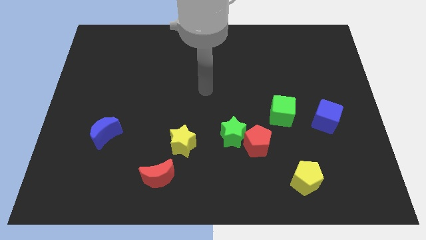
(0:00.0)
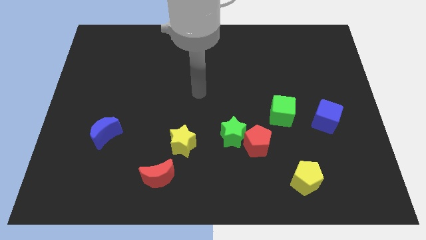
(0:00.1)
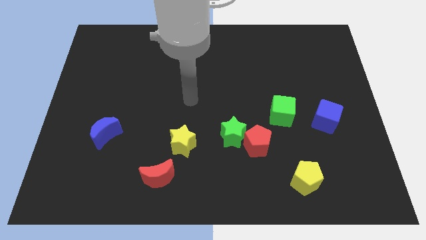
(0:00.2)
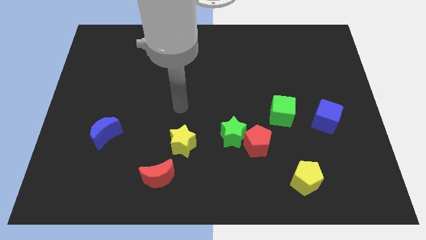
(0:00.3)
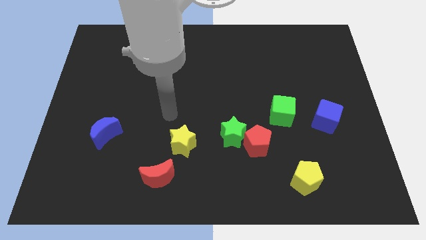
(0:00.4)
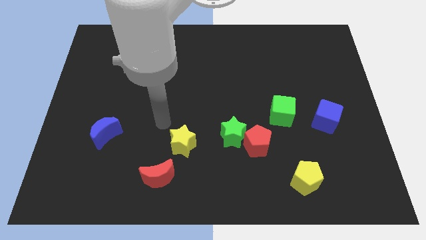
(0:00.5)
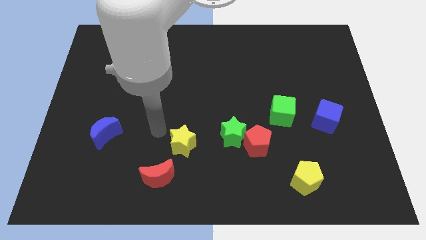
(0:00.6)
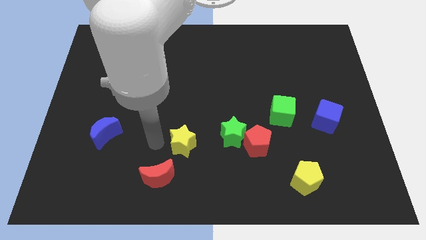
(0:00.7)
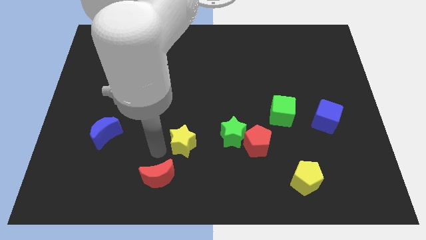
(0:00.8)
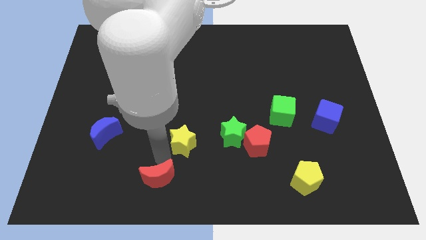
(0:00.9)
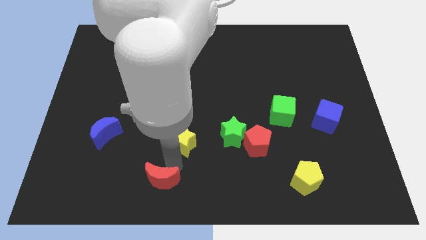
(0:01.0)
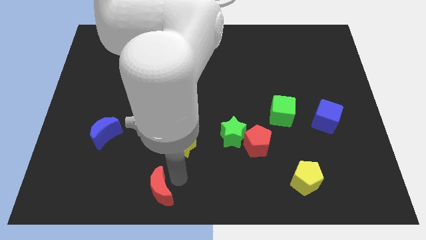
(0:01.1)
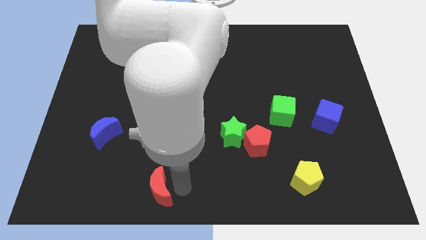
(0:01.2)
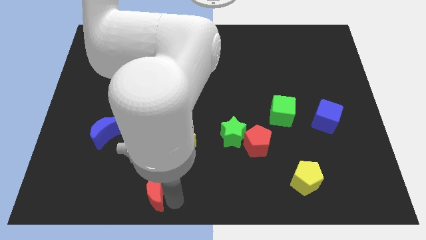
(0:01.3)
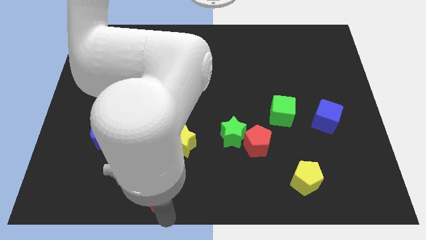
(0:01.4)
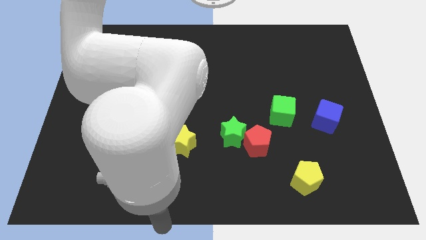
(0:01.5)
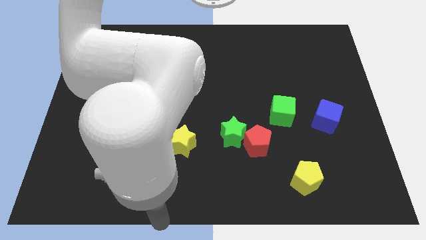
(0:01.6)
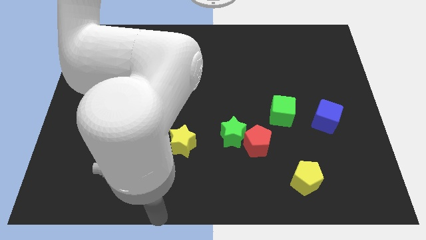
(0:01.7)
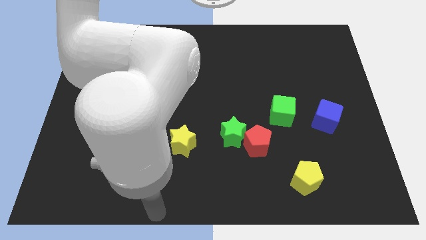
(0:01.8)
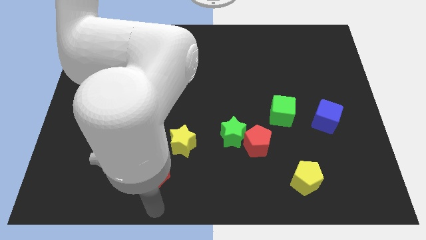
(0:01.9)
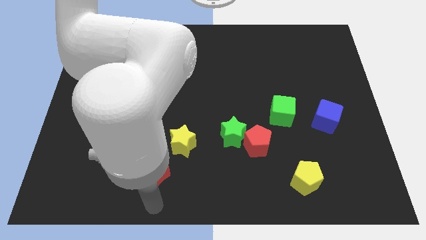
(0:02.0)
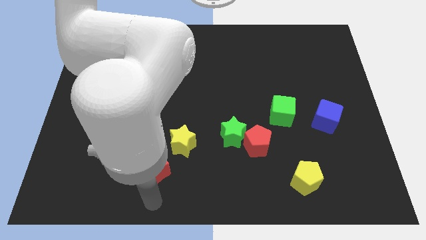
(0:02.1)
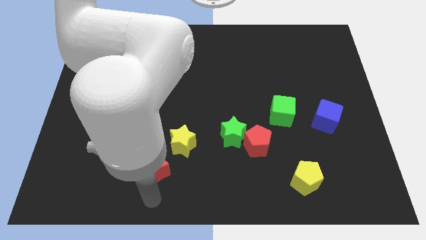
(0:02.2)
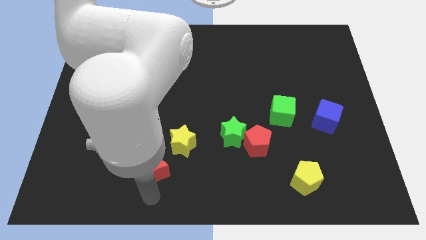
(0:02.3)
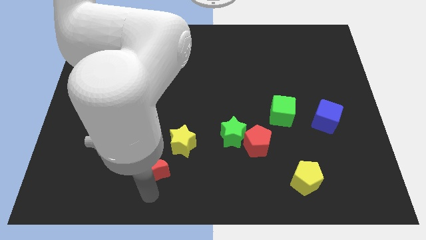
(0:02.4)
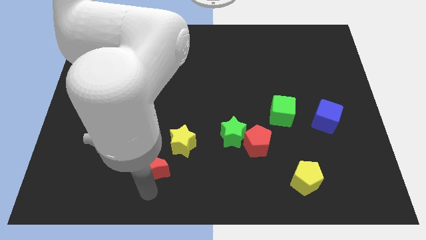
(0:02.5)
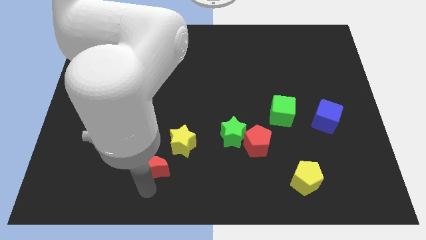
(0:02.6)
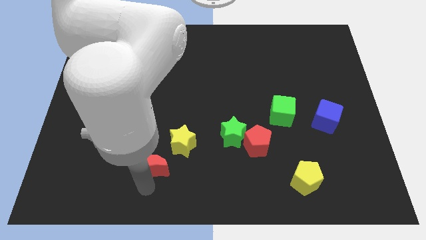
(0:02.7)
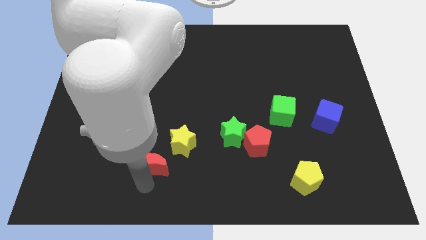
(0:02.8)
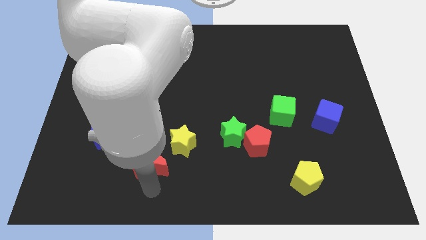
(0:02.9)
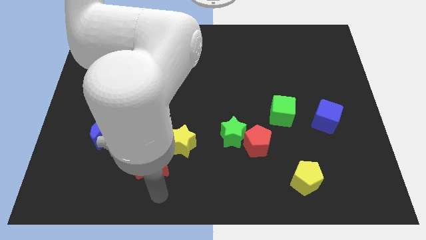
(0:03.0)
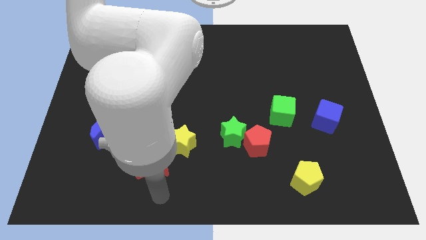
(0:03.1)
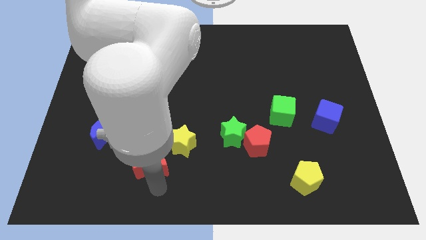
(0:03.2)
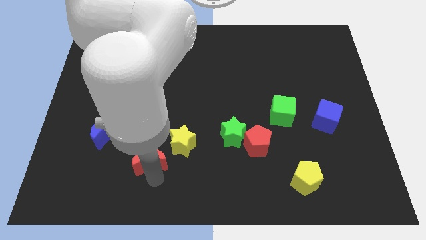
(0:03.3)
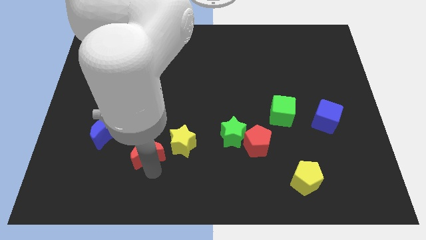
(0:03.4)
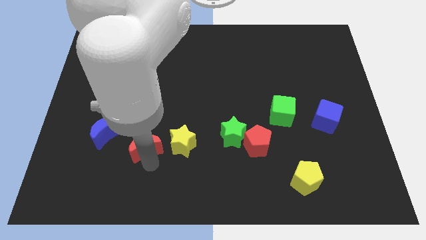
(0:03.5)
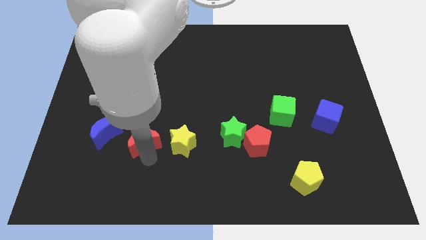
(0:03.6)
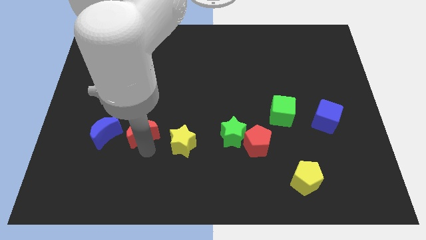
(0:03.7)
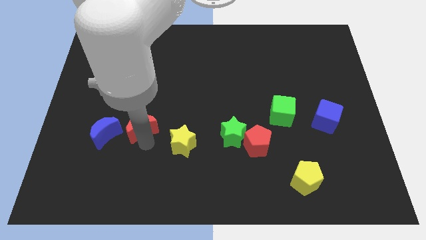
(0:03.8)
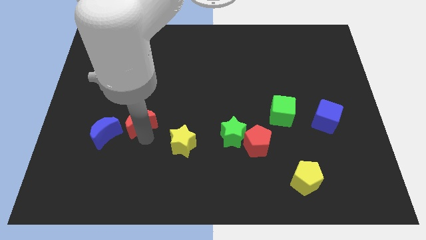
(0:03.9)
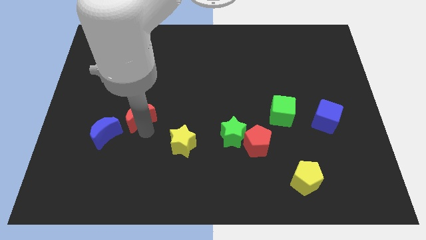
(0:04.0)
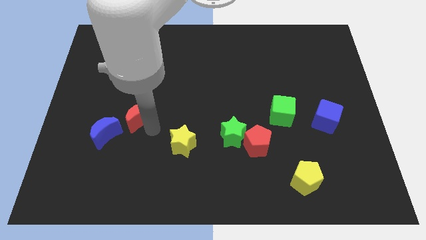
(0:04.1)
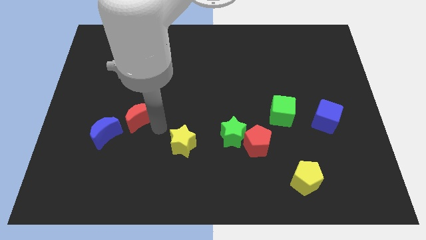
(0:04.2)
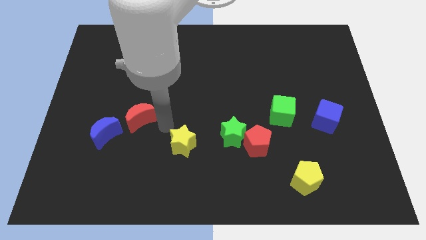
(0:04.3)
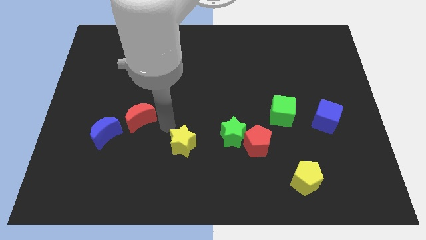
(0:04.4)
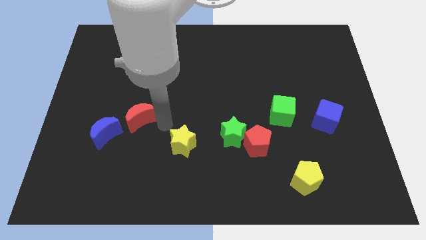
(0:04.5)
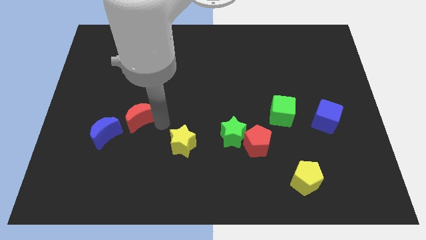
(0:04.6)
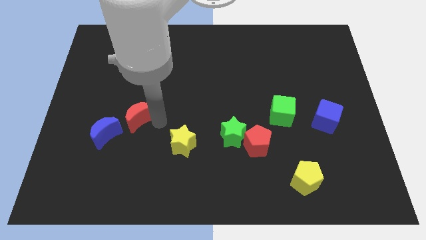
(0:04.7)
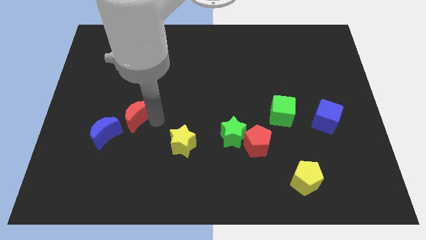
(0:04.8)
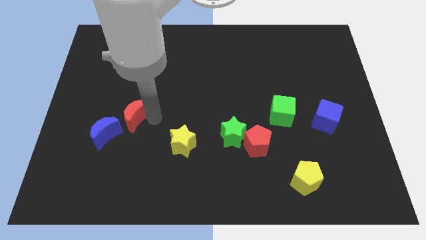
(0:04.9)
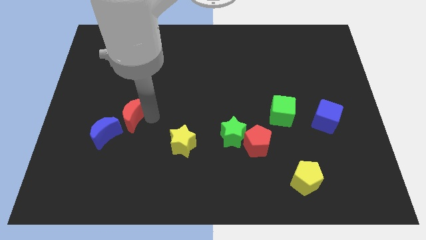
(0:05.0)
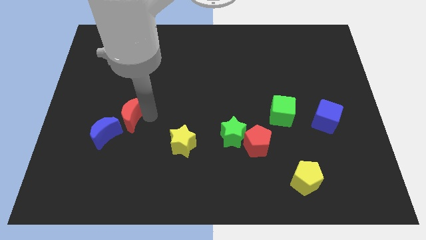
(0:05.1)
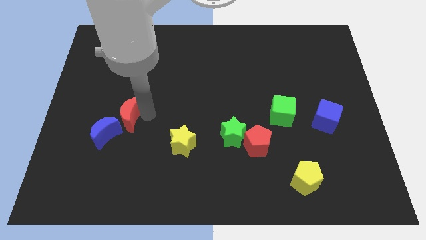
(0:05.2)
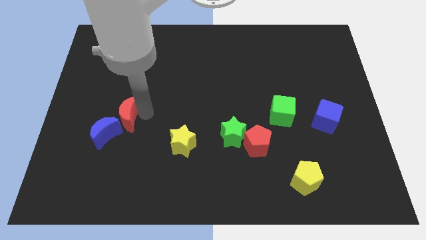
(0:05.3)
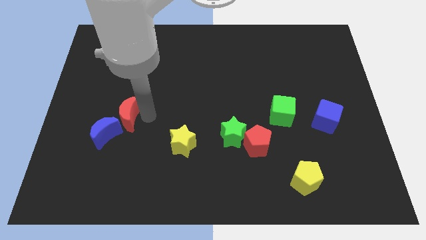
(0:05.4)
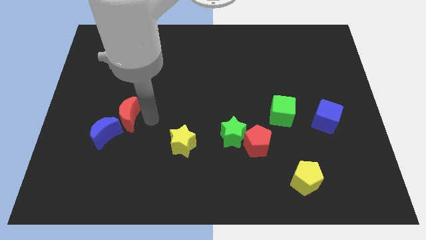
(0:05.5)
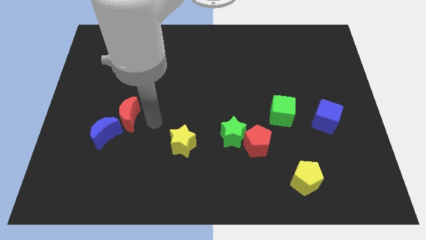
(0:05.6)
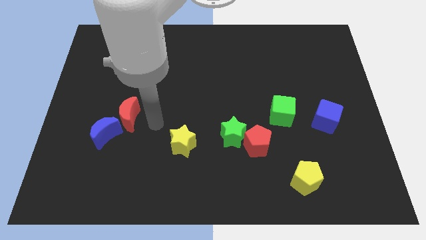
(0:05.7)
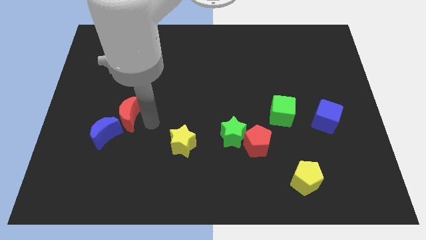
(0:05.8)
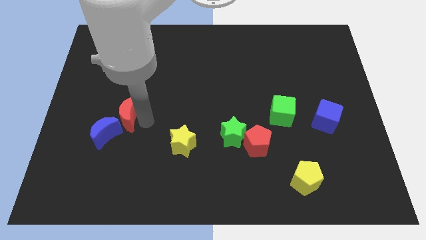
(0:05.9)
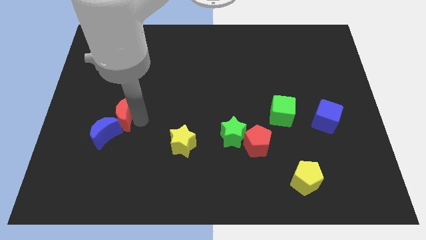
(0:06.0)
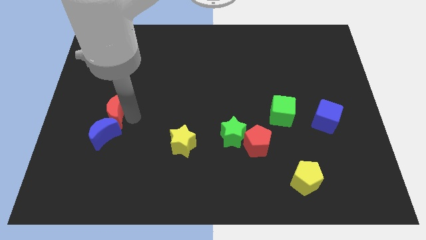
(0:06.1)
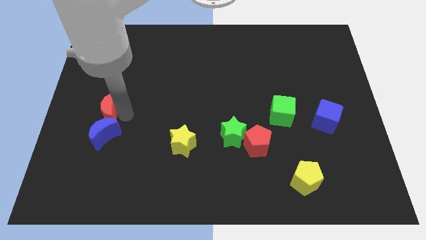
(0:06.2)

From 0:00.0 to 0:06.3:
move the red moon to the top left of the blue moon

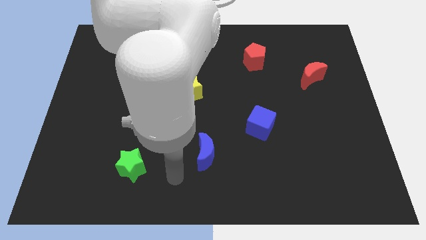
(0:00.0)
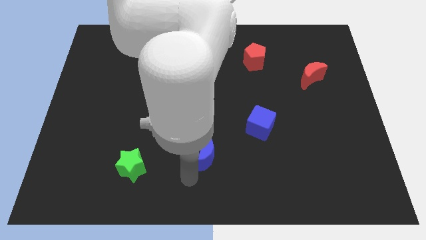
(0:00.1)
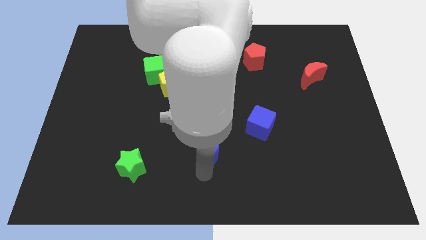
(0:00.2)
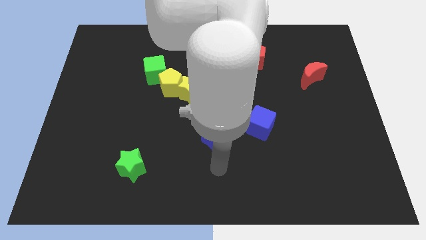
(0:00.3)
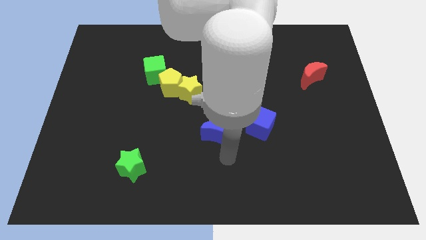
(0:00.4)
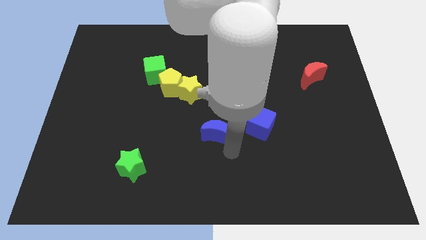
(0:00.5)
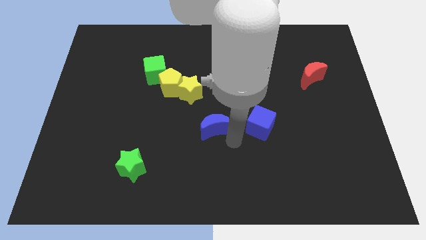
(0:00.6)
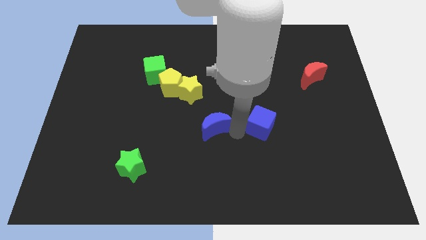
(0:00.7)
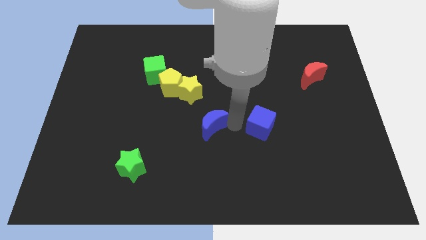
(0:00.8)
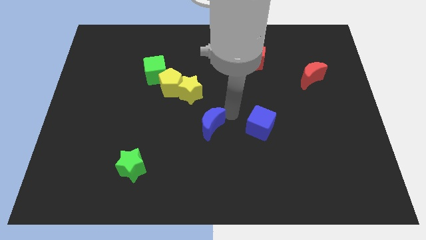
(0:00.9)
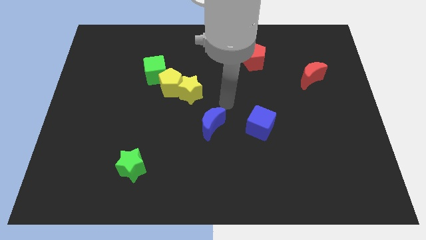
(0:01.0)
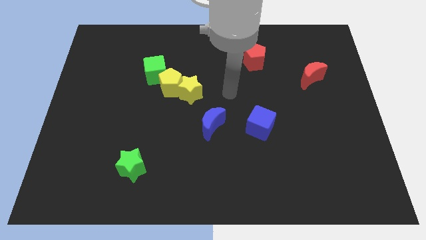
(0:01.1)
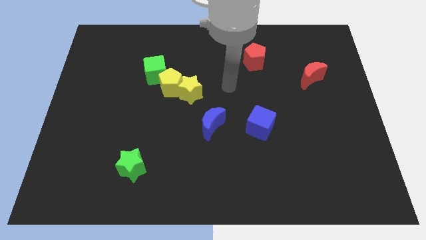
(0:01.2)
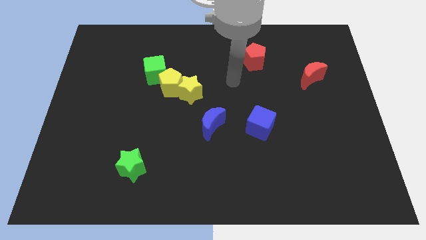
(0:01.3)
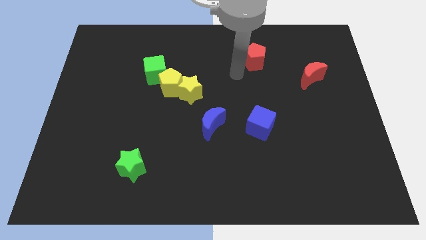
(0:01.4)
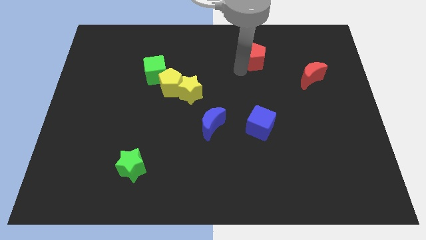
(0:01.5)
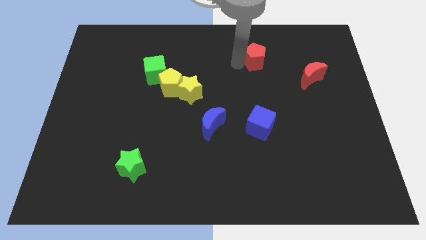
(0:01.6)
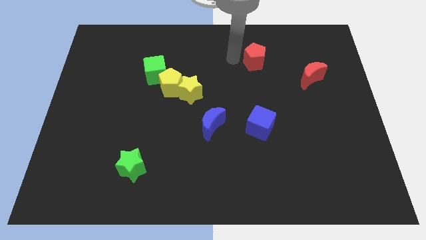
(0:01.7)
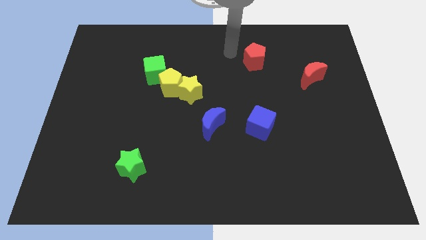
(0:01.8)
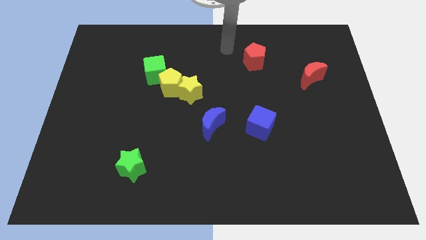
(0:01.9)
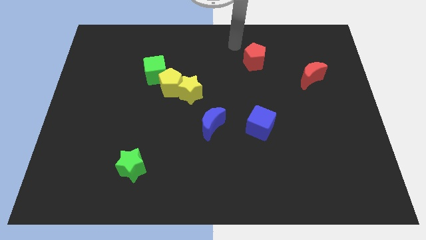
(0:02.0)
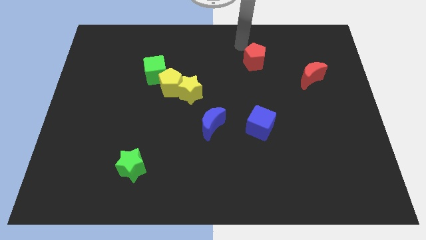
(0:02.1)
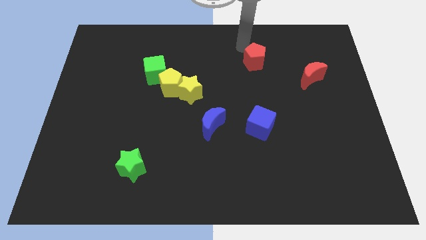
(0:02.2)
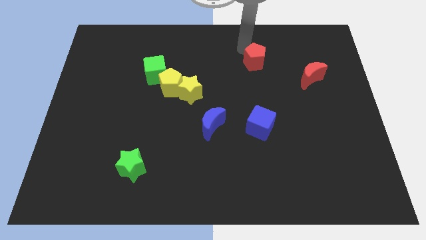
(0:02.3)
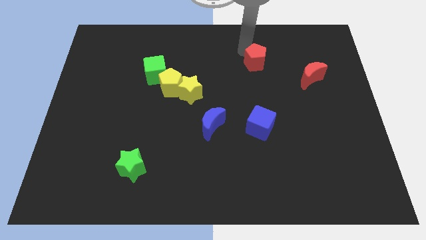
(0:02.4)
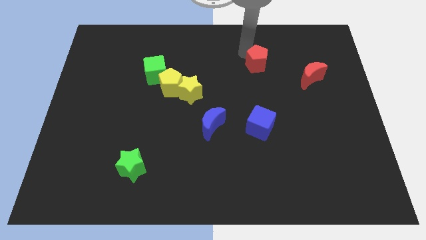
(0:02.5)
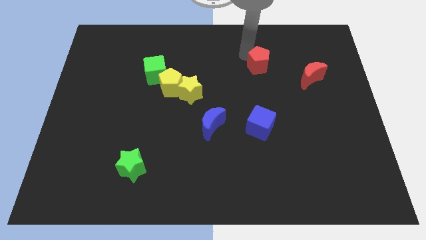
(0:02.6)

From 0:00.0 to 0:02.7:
slide the red pentagon left of the red moon
